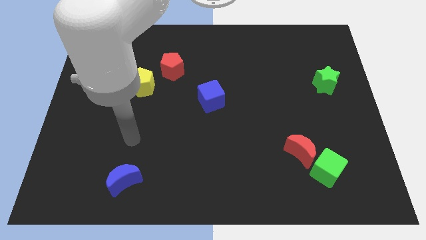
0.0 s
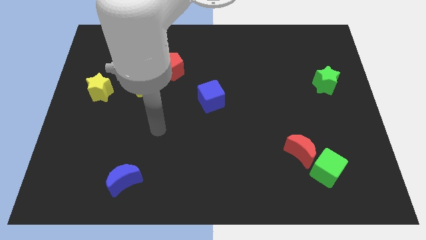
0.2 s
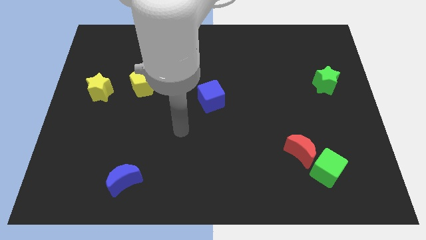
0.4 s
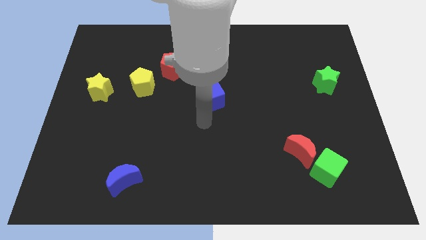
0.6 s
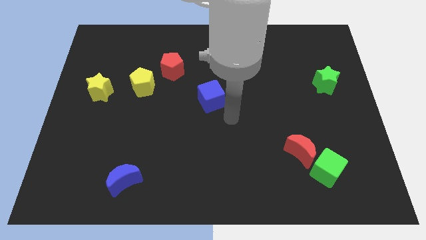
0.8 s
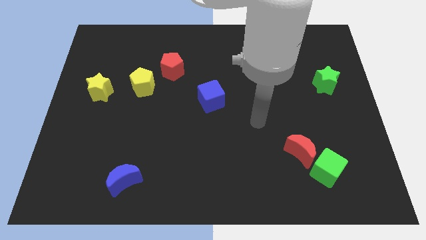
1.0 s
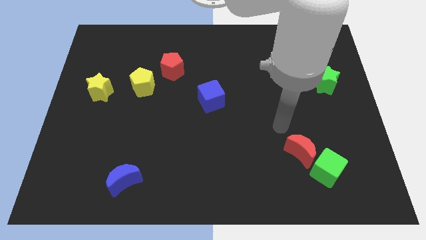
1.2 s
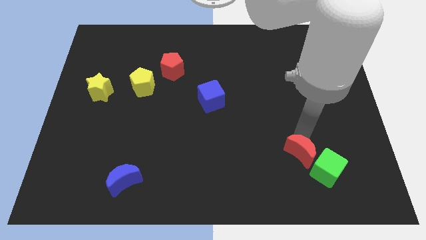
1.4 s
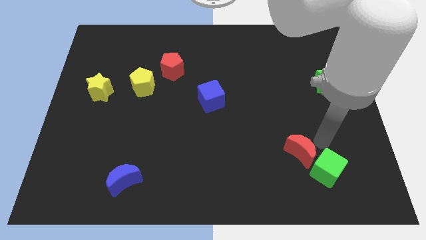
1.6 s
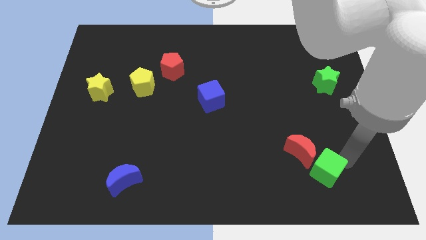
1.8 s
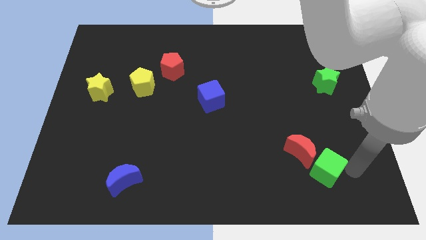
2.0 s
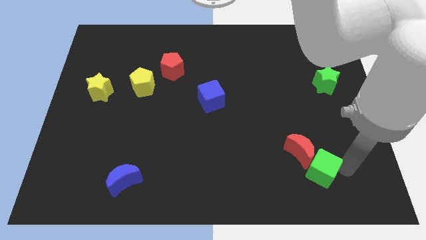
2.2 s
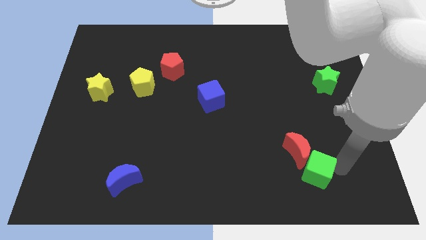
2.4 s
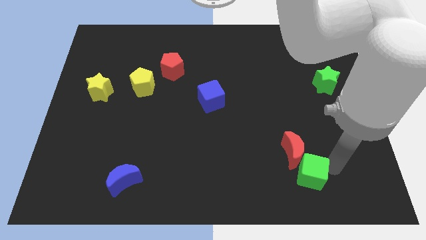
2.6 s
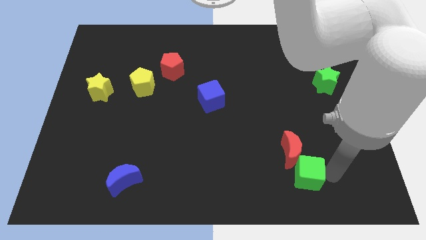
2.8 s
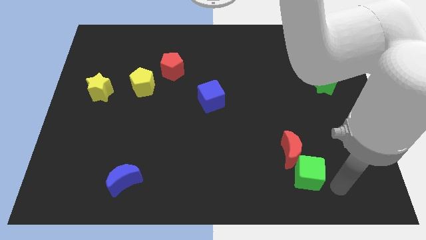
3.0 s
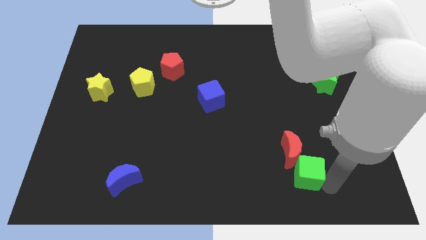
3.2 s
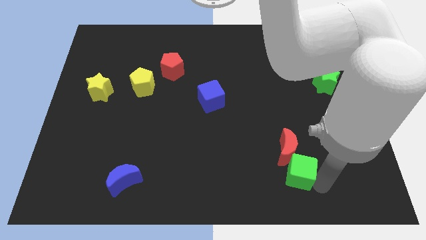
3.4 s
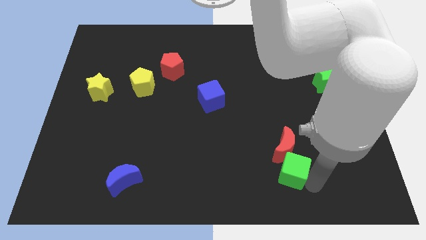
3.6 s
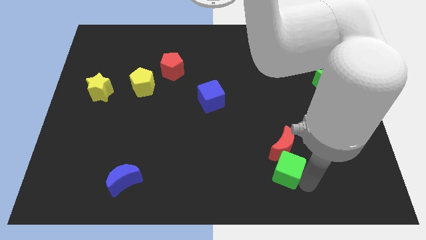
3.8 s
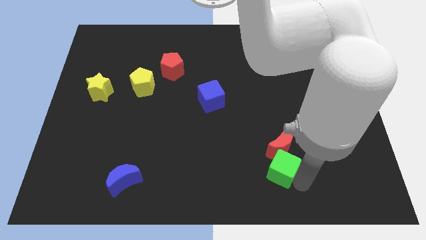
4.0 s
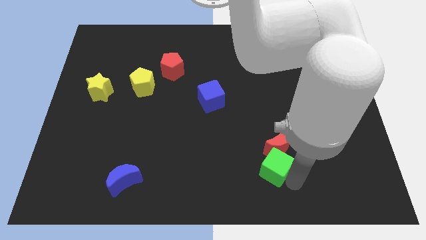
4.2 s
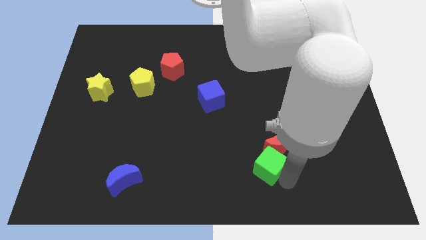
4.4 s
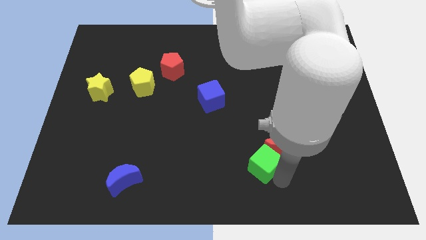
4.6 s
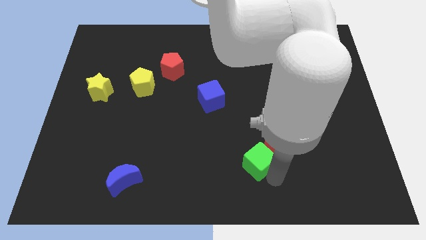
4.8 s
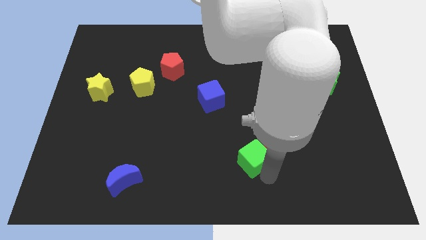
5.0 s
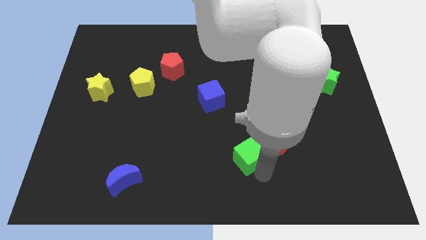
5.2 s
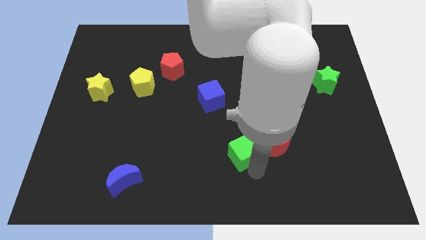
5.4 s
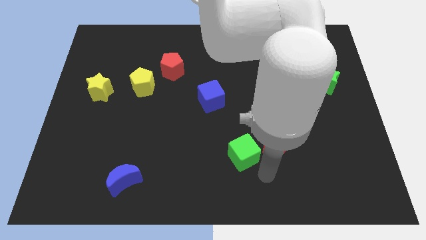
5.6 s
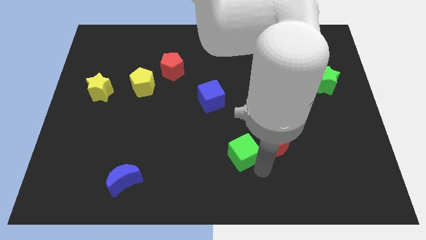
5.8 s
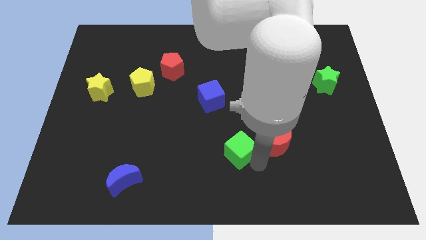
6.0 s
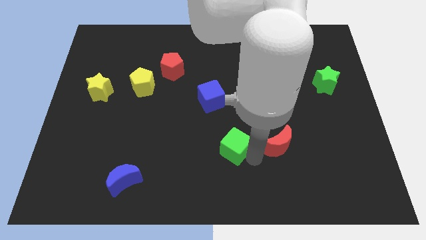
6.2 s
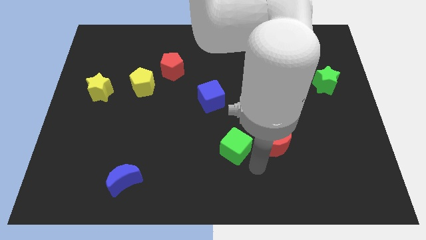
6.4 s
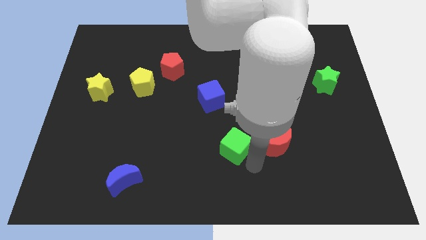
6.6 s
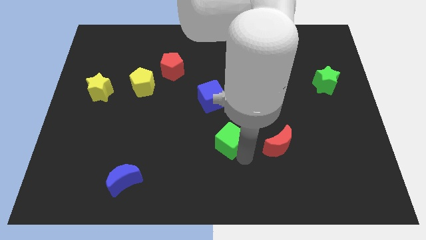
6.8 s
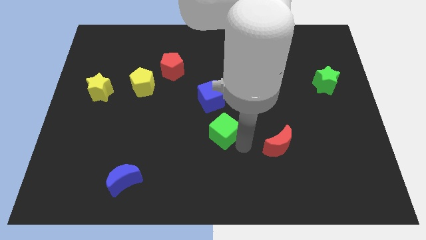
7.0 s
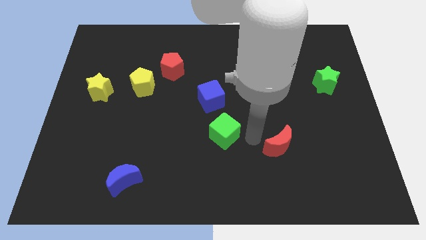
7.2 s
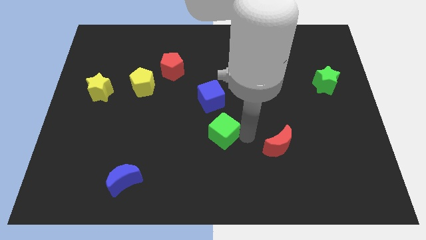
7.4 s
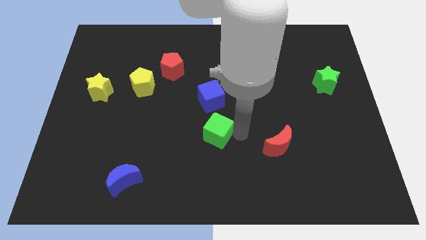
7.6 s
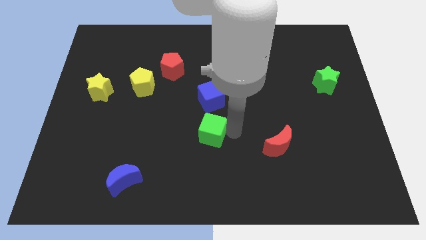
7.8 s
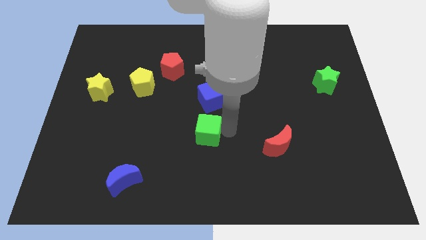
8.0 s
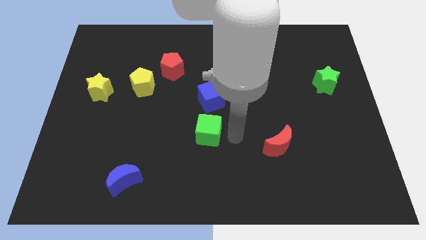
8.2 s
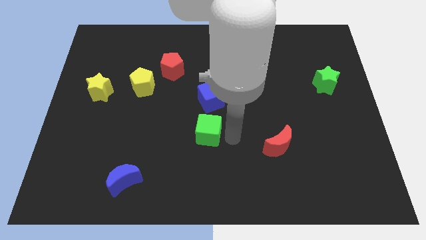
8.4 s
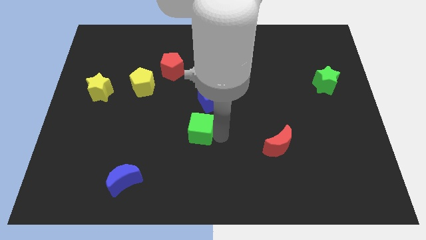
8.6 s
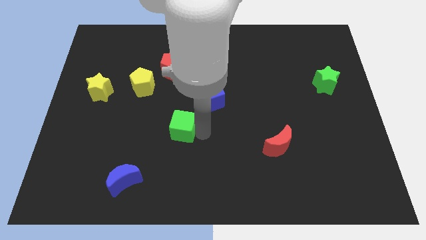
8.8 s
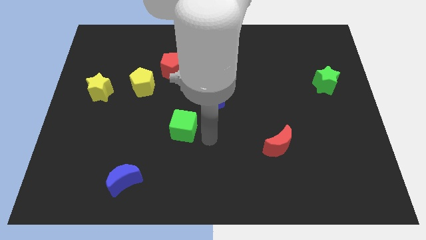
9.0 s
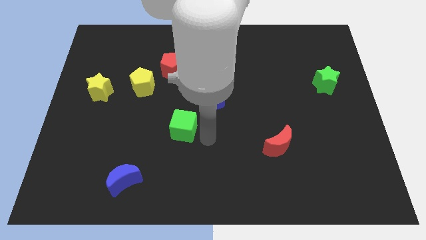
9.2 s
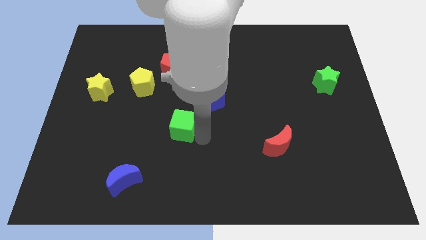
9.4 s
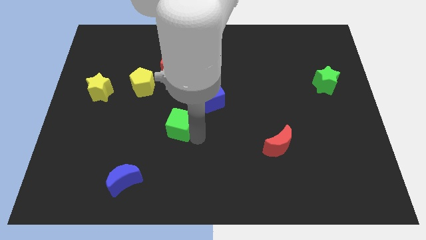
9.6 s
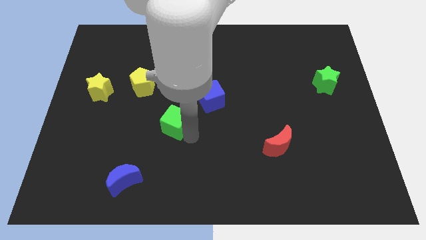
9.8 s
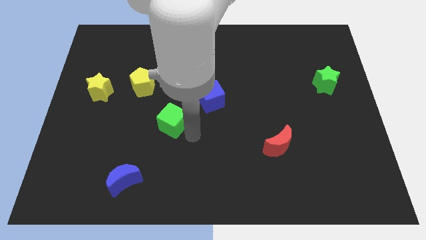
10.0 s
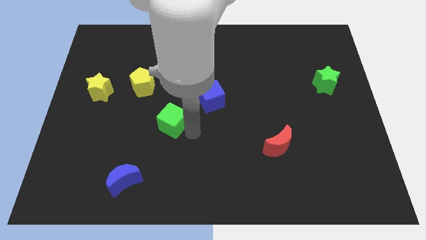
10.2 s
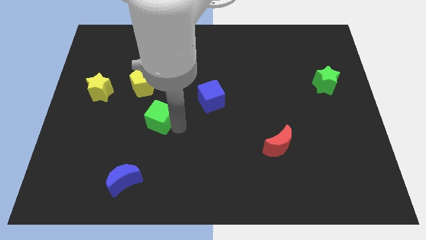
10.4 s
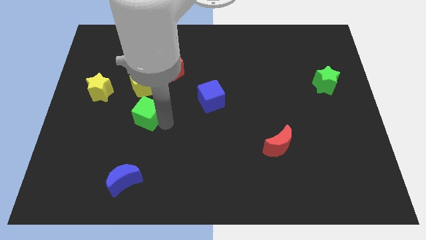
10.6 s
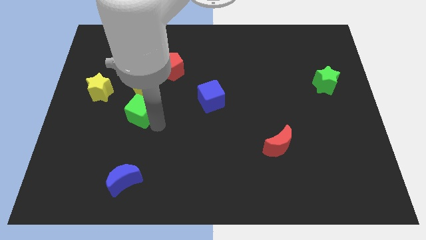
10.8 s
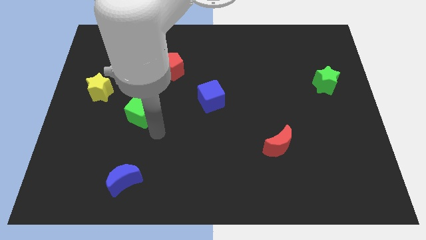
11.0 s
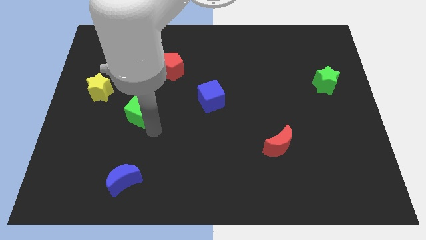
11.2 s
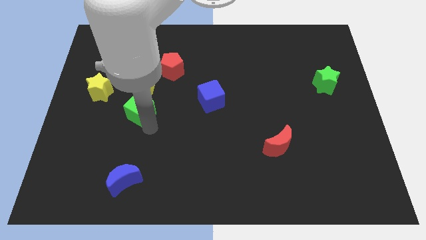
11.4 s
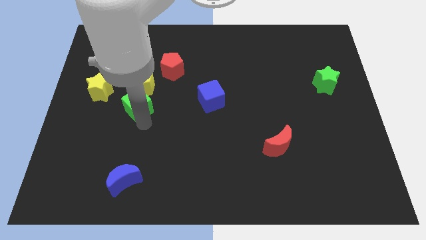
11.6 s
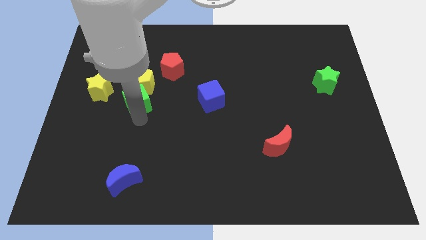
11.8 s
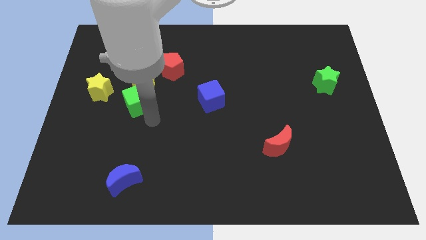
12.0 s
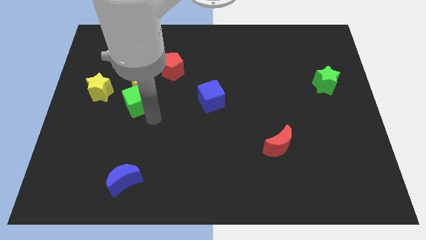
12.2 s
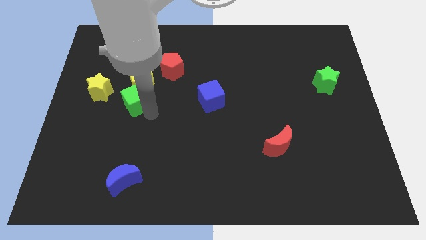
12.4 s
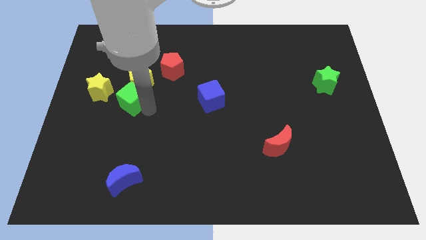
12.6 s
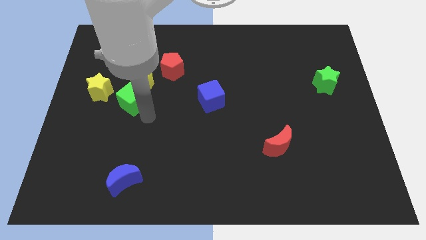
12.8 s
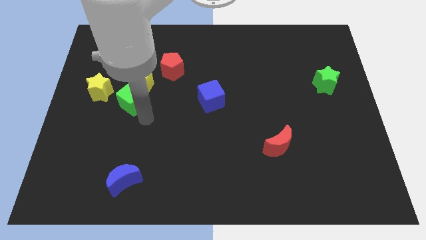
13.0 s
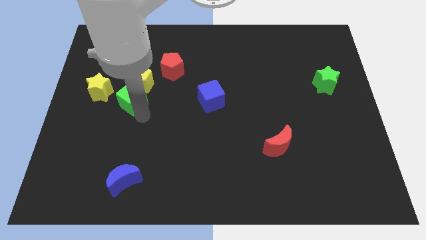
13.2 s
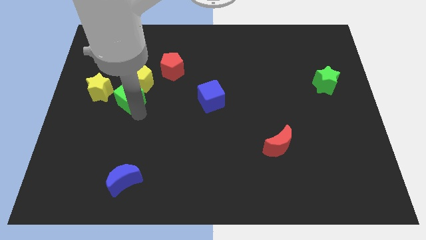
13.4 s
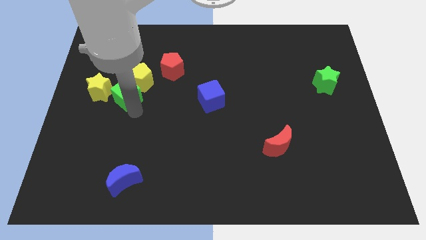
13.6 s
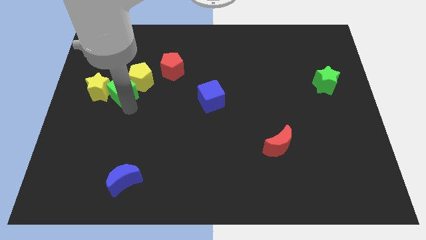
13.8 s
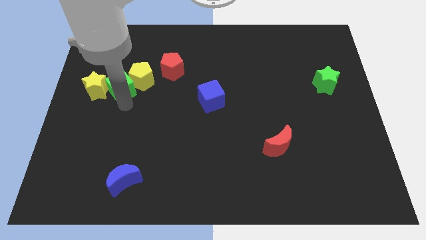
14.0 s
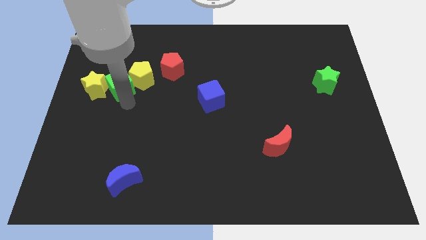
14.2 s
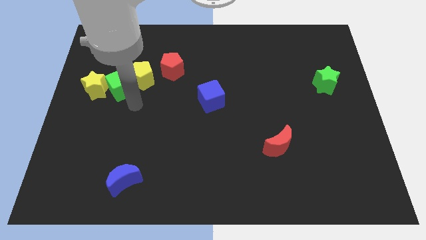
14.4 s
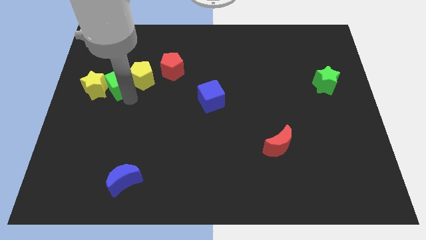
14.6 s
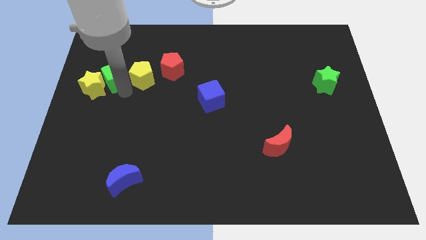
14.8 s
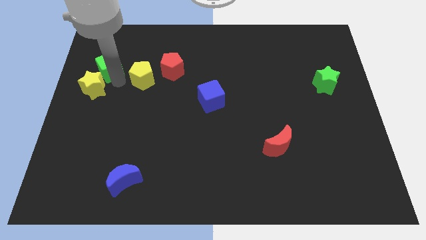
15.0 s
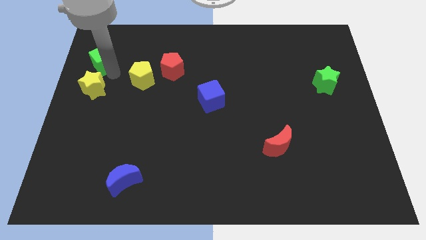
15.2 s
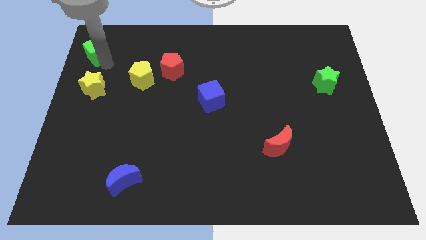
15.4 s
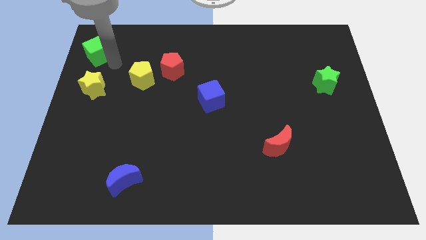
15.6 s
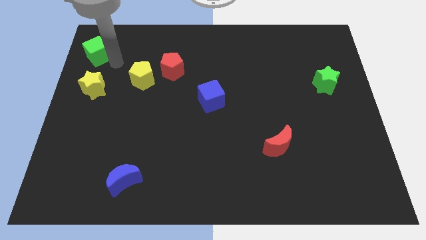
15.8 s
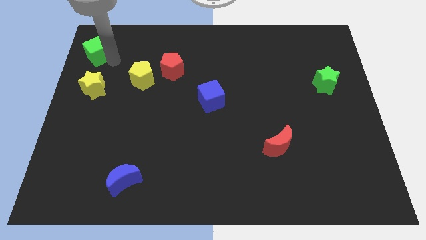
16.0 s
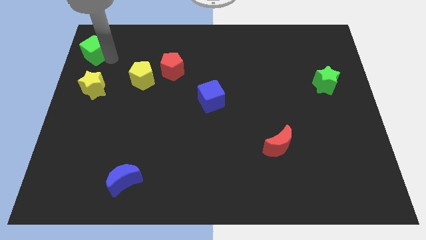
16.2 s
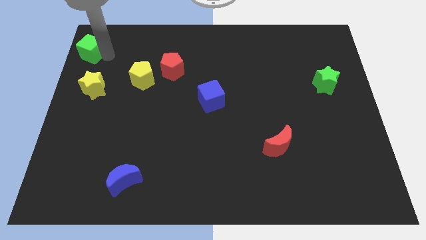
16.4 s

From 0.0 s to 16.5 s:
slide the green cube to the top left corner
